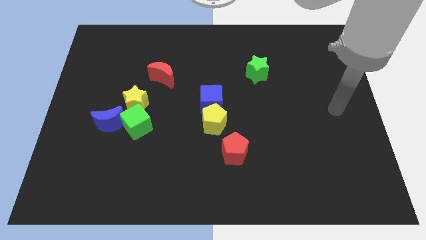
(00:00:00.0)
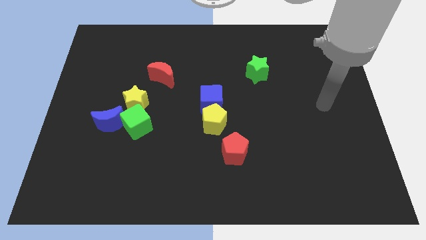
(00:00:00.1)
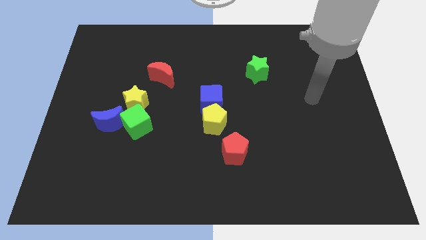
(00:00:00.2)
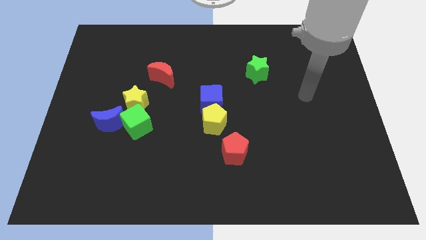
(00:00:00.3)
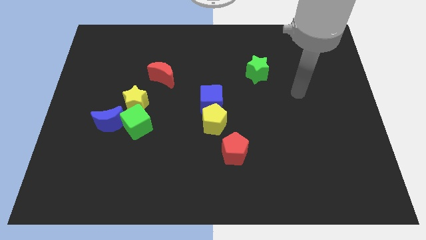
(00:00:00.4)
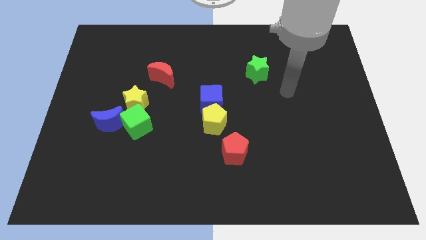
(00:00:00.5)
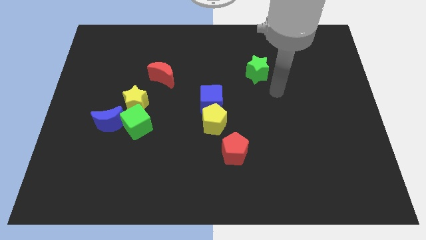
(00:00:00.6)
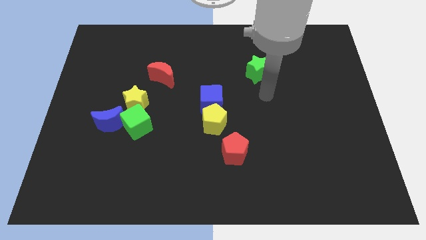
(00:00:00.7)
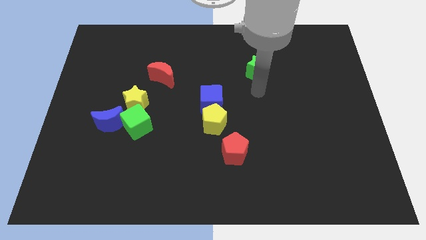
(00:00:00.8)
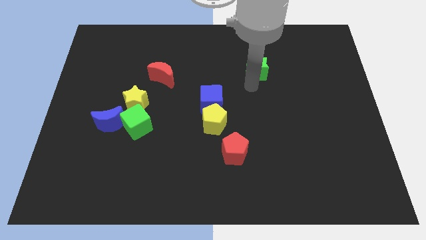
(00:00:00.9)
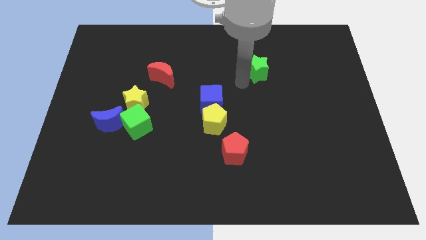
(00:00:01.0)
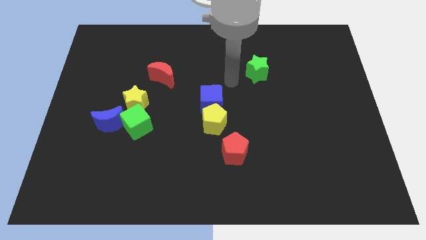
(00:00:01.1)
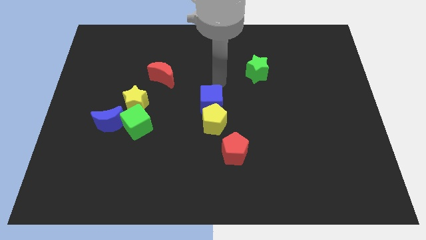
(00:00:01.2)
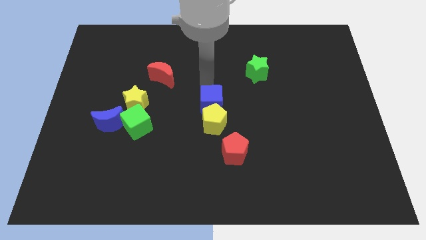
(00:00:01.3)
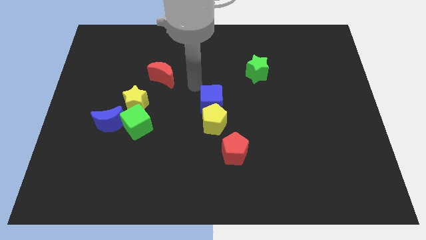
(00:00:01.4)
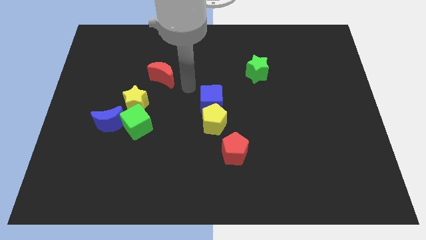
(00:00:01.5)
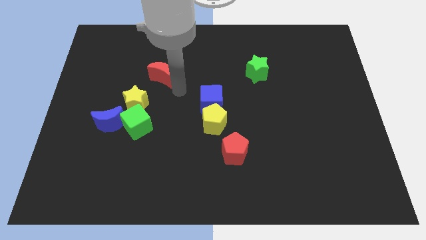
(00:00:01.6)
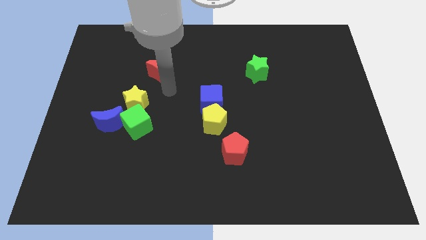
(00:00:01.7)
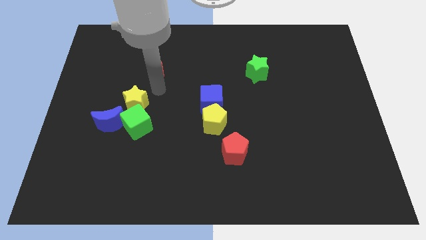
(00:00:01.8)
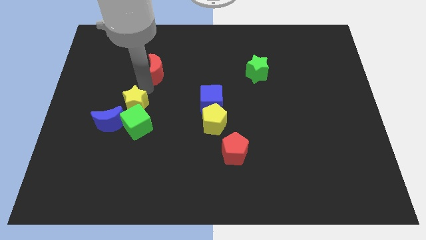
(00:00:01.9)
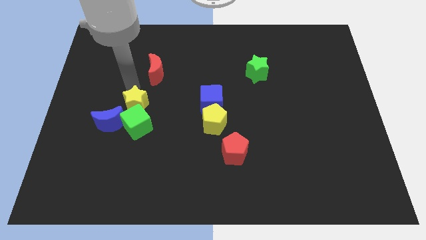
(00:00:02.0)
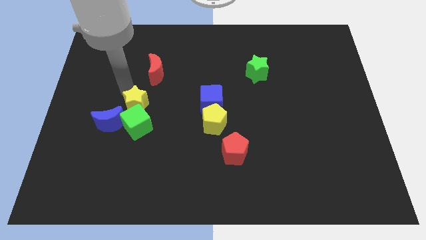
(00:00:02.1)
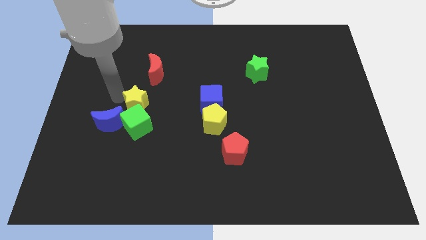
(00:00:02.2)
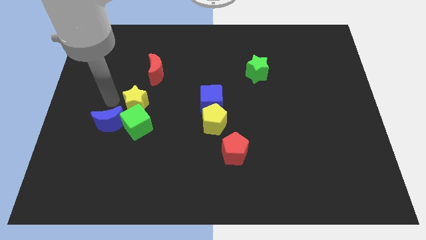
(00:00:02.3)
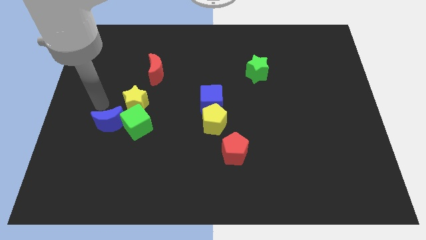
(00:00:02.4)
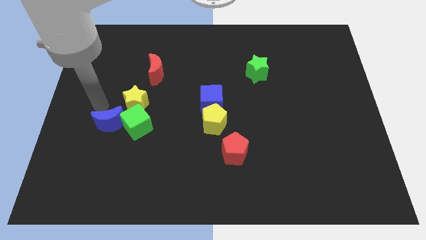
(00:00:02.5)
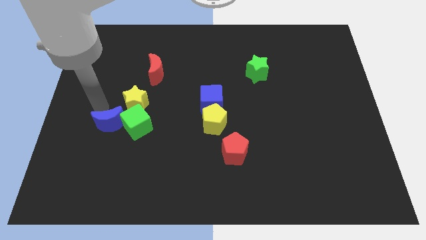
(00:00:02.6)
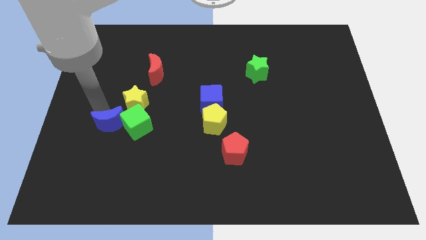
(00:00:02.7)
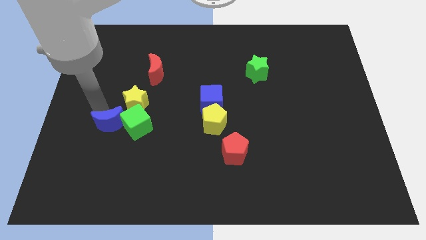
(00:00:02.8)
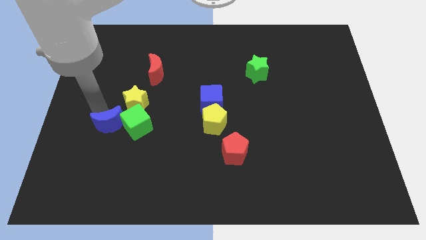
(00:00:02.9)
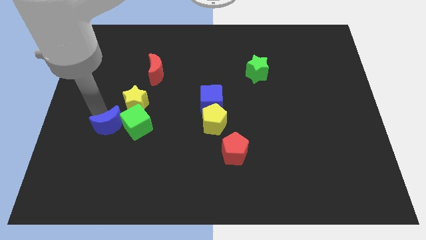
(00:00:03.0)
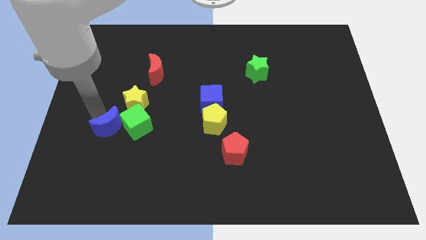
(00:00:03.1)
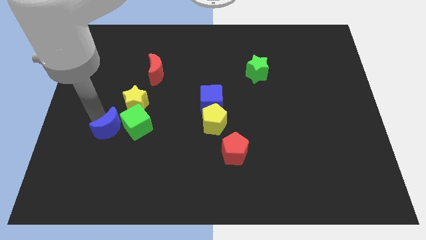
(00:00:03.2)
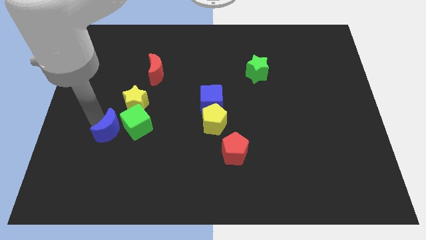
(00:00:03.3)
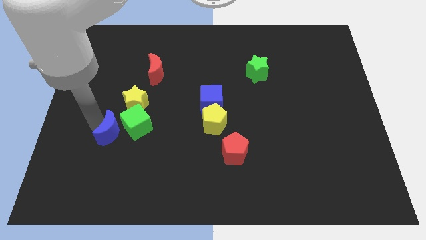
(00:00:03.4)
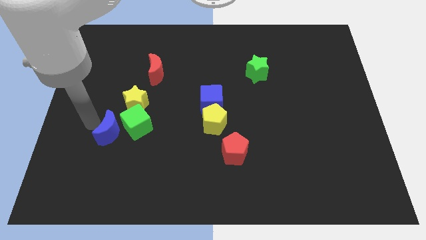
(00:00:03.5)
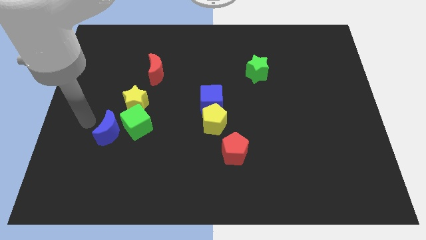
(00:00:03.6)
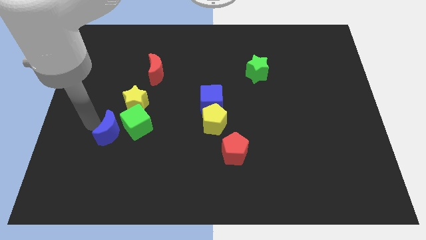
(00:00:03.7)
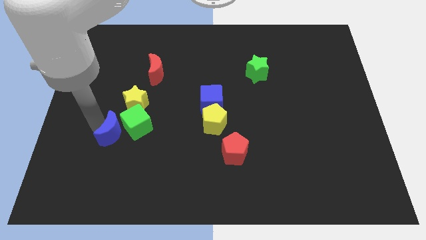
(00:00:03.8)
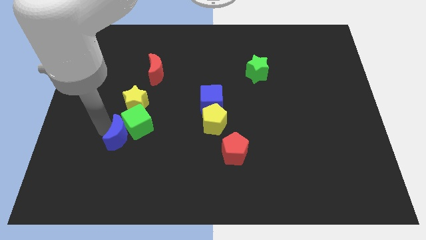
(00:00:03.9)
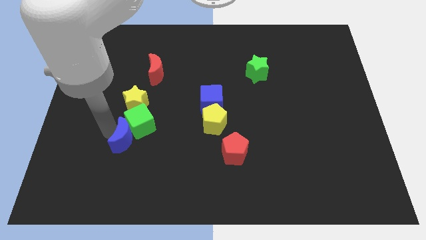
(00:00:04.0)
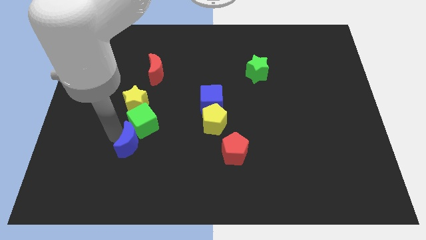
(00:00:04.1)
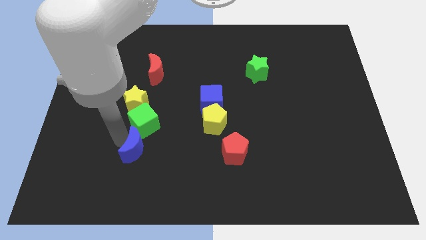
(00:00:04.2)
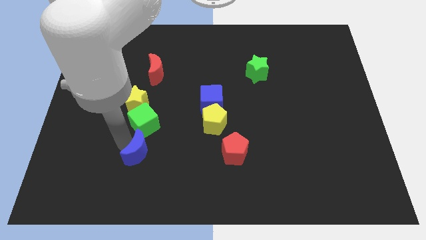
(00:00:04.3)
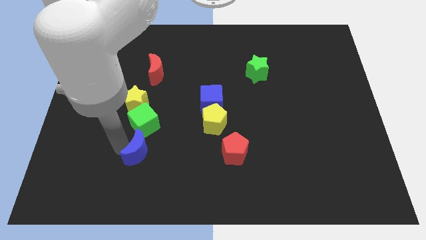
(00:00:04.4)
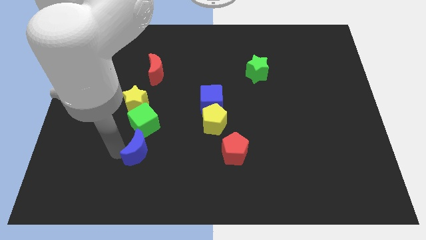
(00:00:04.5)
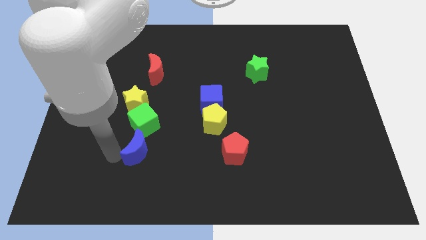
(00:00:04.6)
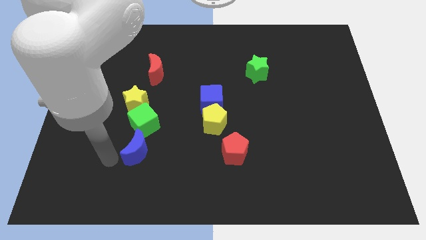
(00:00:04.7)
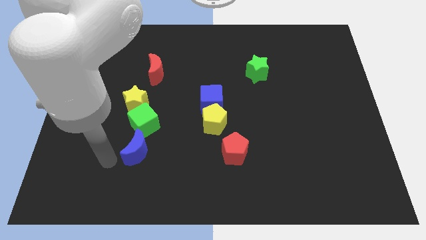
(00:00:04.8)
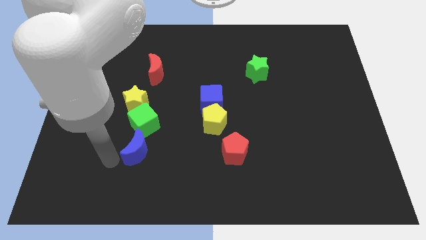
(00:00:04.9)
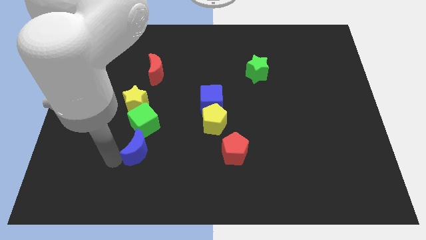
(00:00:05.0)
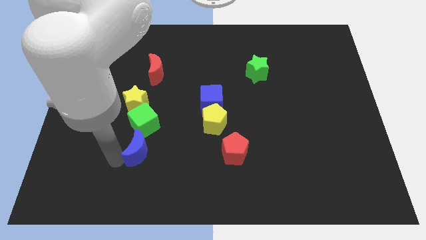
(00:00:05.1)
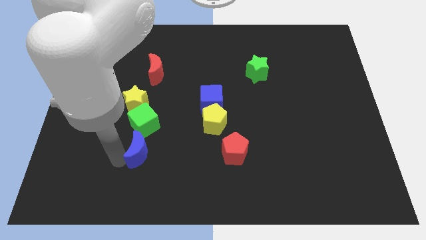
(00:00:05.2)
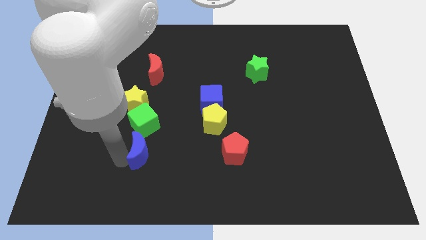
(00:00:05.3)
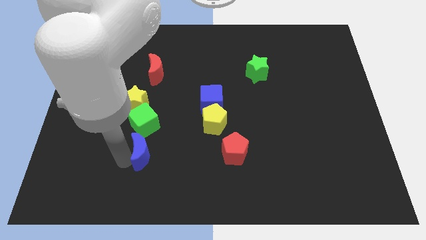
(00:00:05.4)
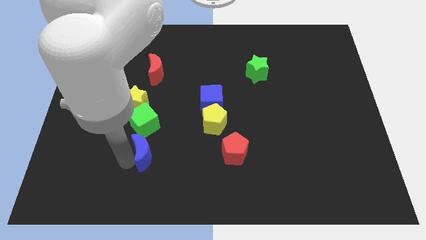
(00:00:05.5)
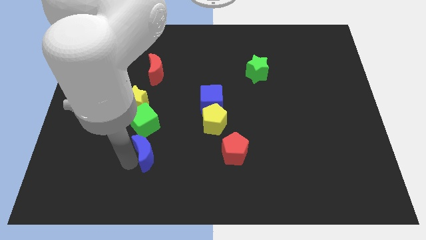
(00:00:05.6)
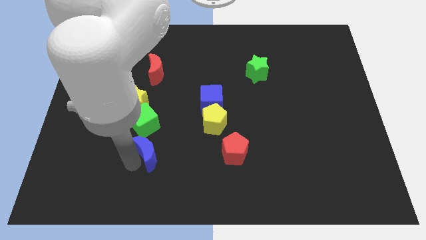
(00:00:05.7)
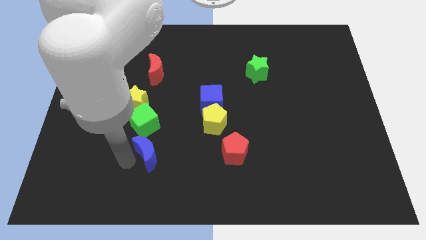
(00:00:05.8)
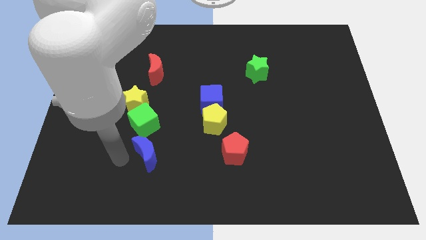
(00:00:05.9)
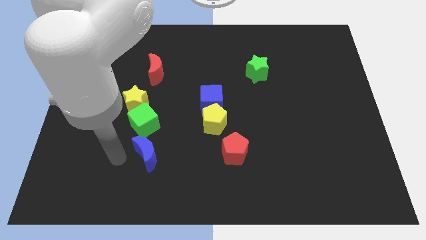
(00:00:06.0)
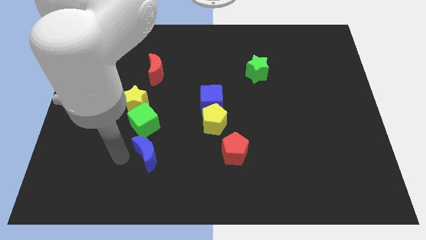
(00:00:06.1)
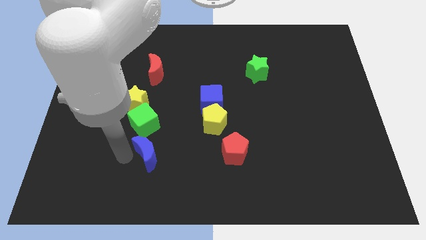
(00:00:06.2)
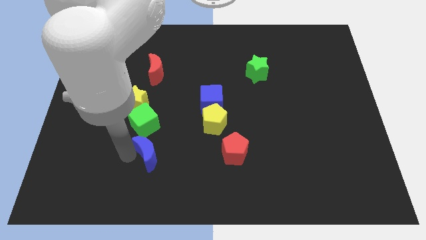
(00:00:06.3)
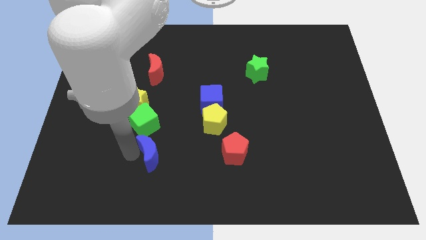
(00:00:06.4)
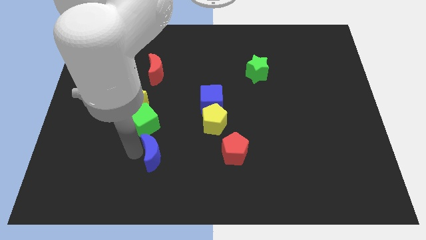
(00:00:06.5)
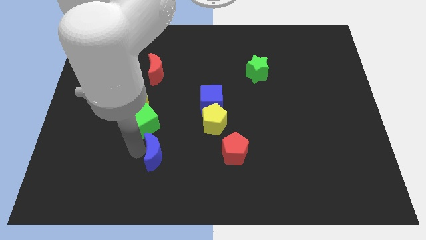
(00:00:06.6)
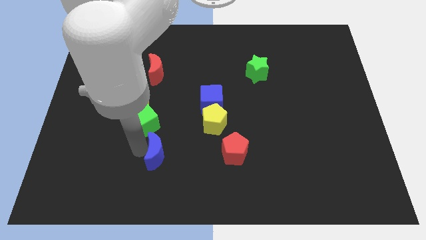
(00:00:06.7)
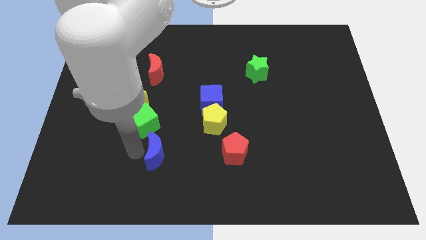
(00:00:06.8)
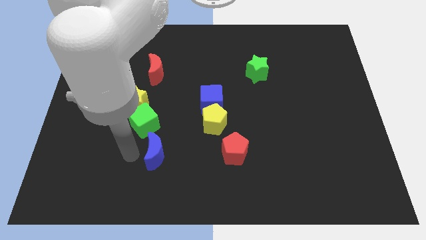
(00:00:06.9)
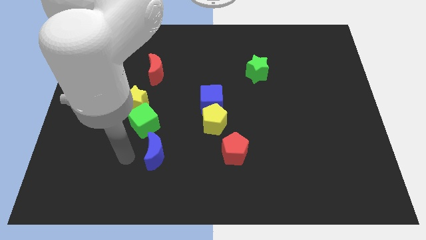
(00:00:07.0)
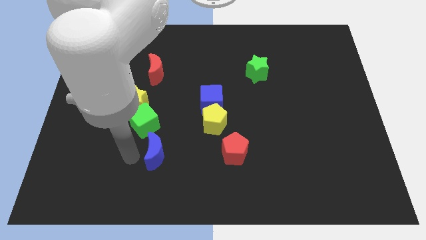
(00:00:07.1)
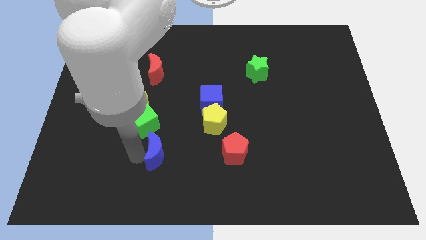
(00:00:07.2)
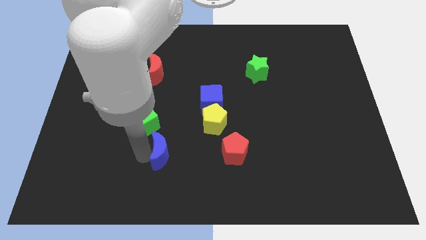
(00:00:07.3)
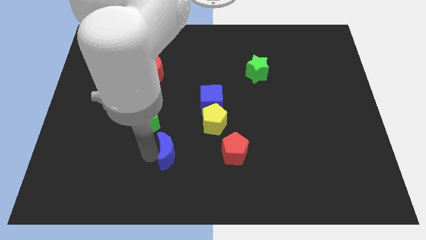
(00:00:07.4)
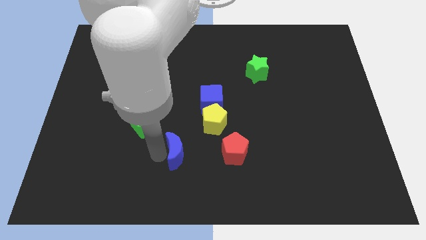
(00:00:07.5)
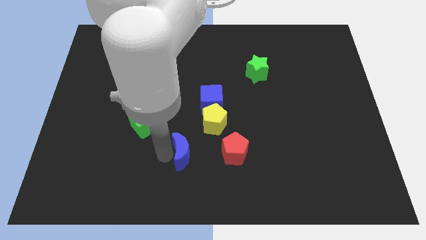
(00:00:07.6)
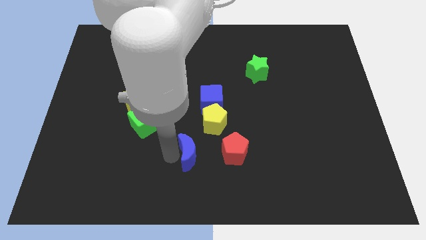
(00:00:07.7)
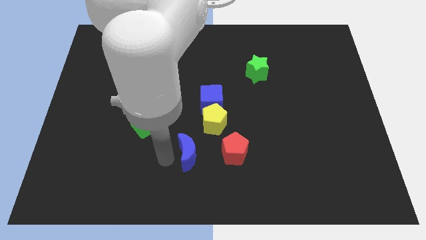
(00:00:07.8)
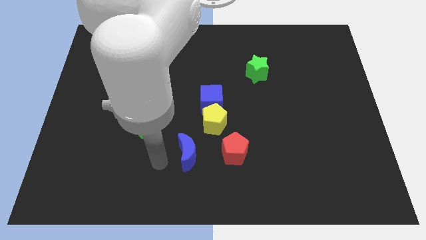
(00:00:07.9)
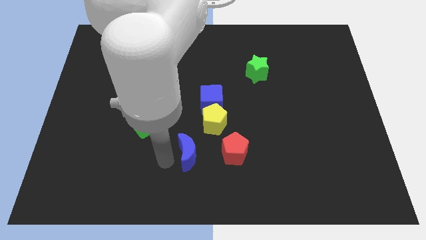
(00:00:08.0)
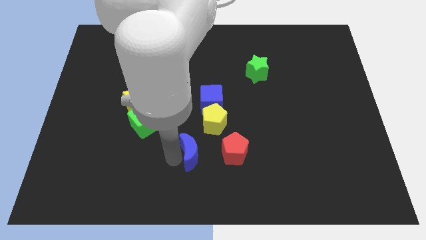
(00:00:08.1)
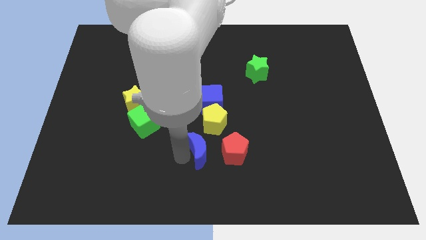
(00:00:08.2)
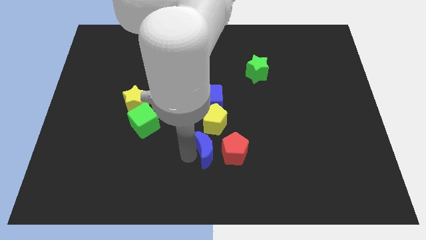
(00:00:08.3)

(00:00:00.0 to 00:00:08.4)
slide the blue moon to the red pentagon
